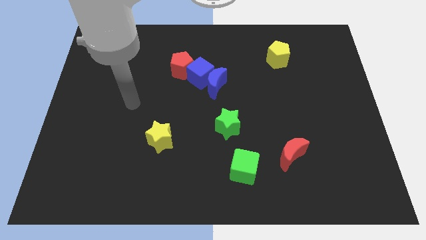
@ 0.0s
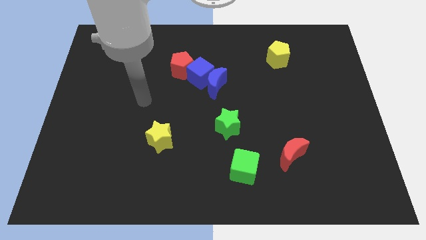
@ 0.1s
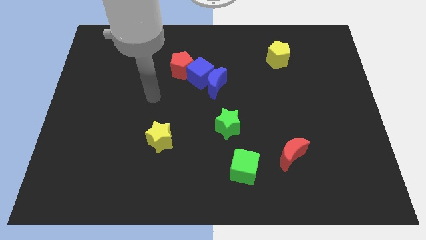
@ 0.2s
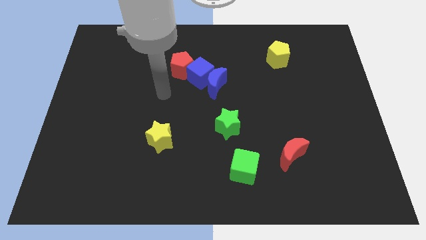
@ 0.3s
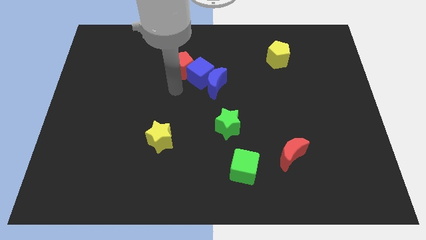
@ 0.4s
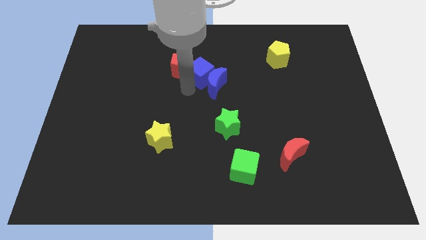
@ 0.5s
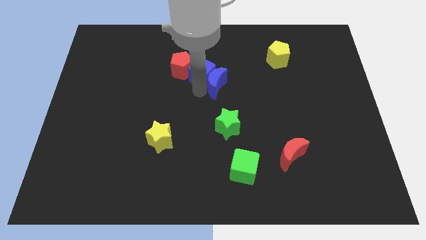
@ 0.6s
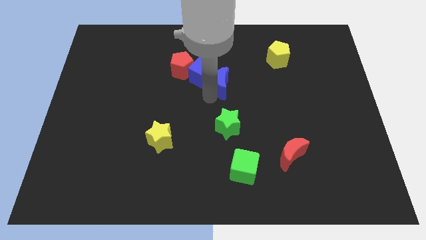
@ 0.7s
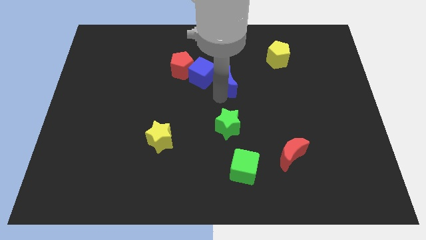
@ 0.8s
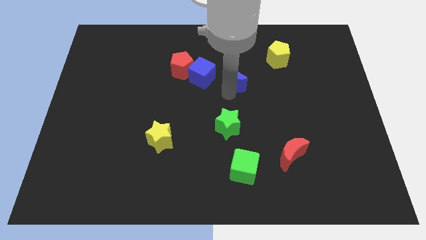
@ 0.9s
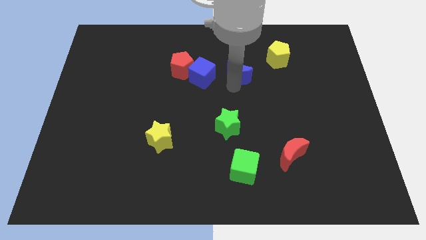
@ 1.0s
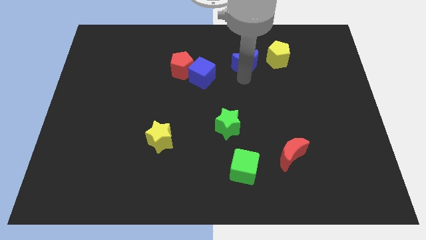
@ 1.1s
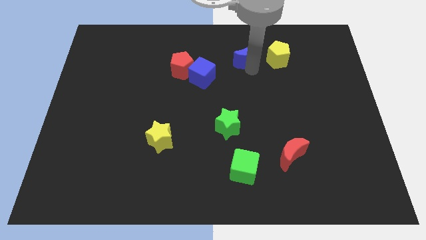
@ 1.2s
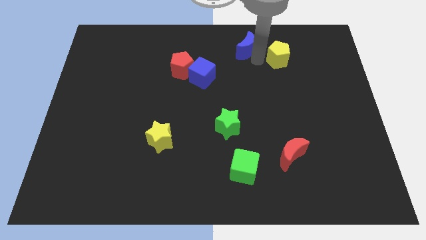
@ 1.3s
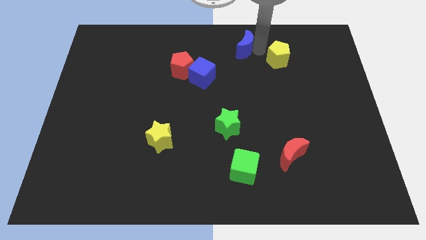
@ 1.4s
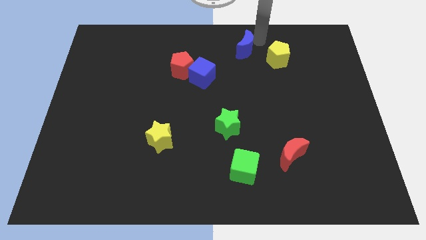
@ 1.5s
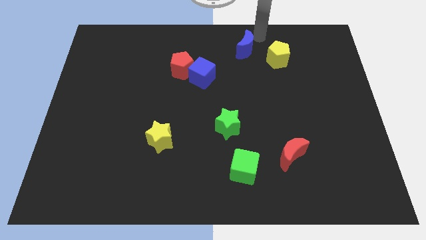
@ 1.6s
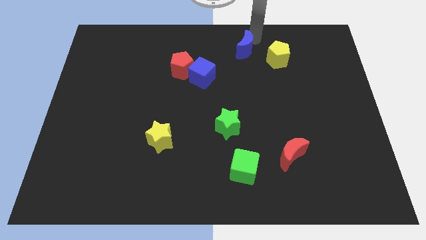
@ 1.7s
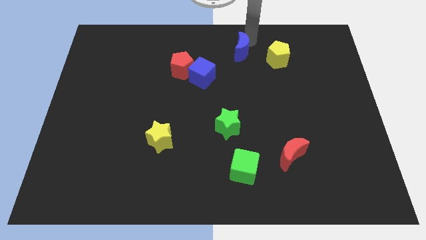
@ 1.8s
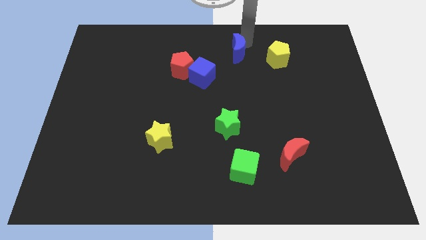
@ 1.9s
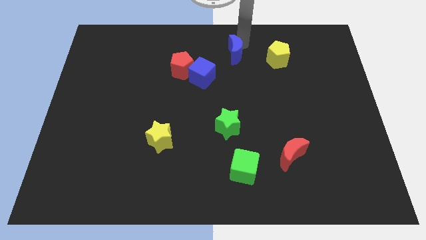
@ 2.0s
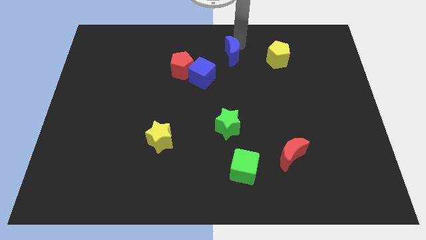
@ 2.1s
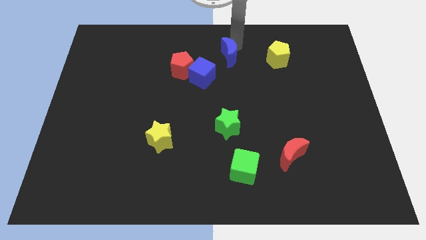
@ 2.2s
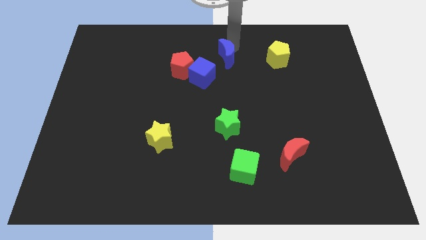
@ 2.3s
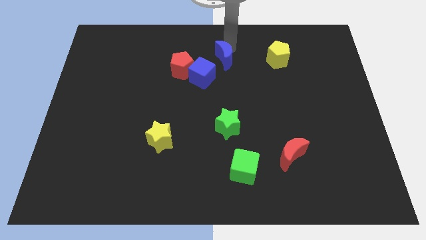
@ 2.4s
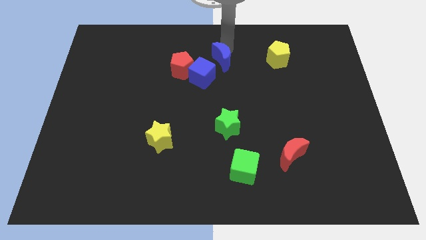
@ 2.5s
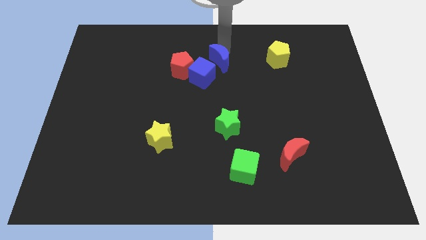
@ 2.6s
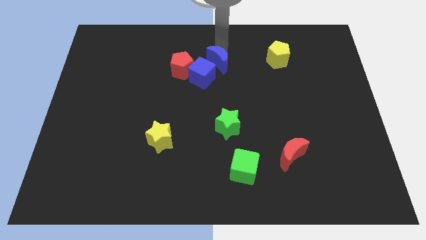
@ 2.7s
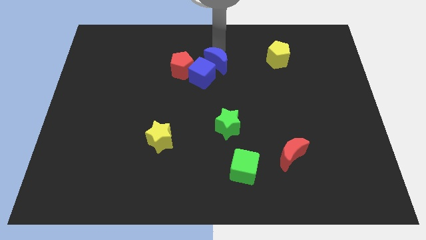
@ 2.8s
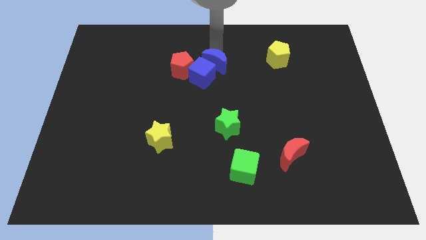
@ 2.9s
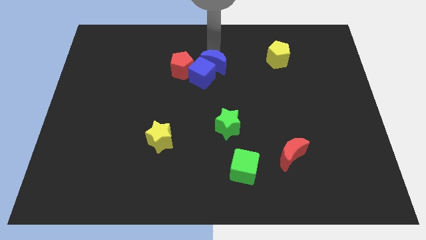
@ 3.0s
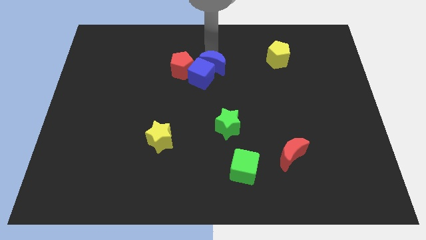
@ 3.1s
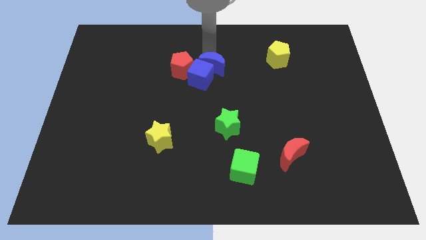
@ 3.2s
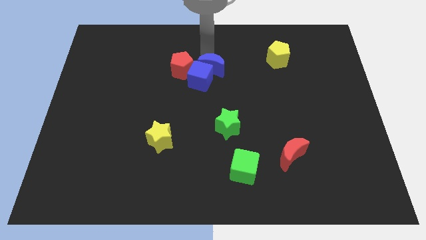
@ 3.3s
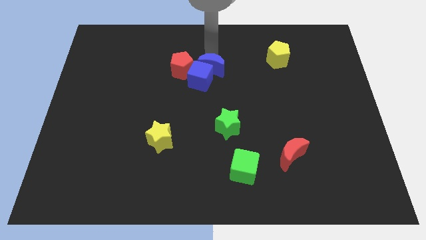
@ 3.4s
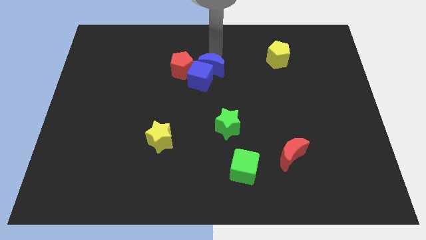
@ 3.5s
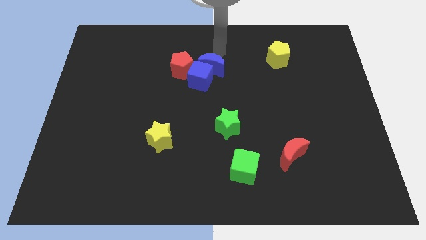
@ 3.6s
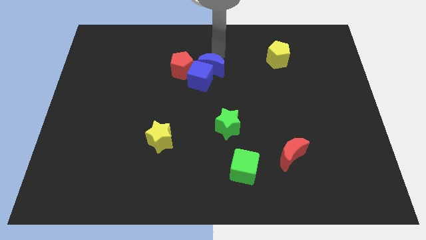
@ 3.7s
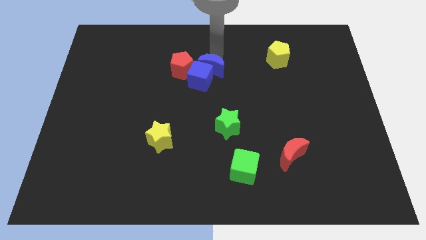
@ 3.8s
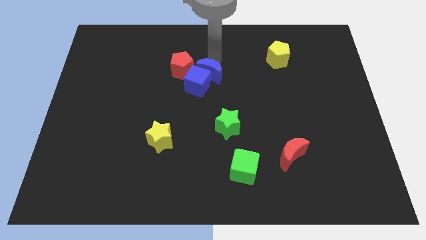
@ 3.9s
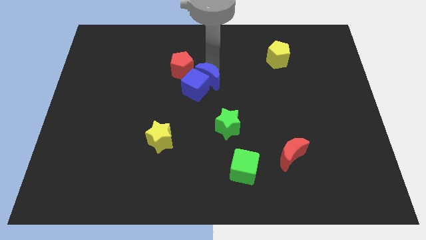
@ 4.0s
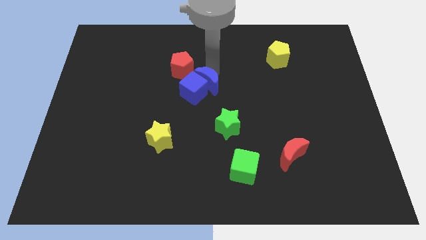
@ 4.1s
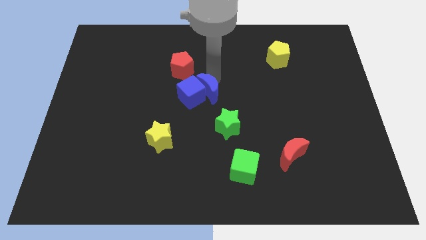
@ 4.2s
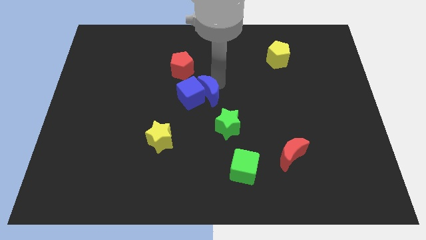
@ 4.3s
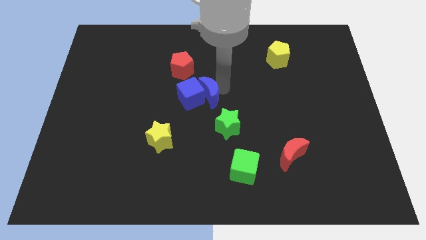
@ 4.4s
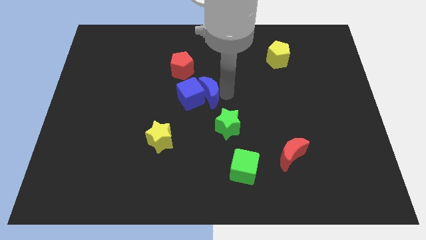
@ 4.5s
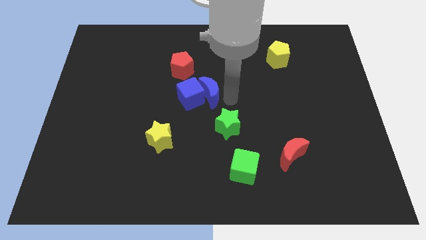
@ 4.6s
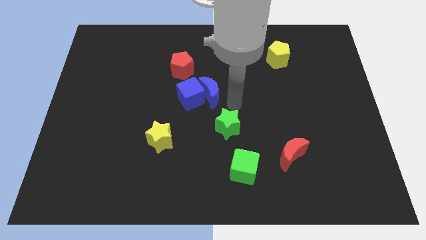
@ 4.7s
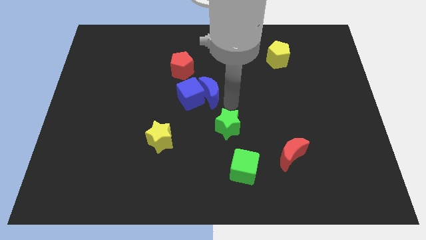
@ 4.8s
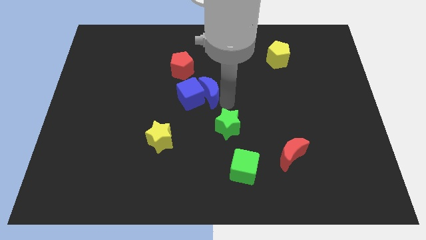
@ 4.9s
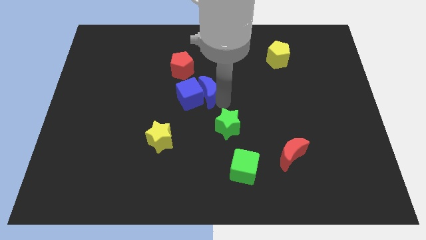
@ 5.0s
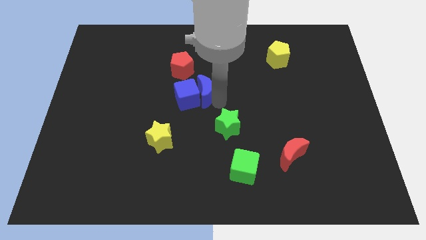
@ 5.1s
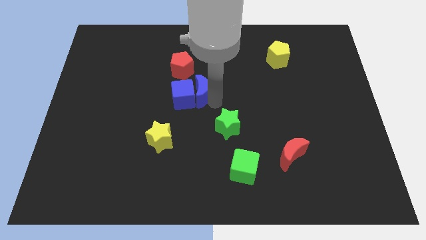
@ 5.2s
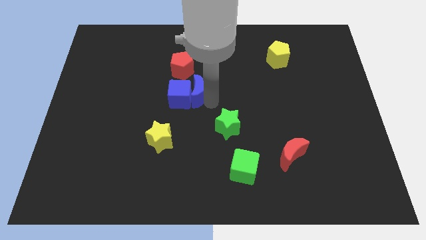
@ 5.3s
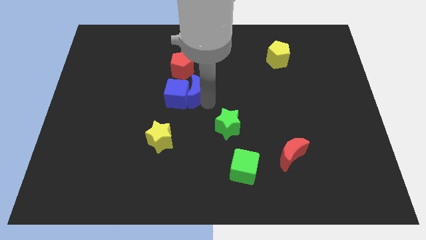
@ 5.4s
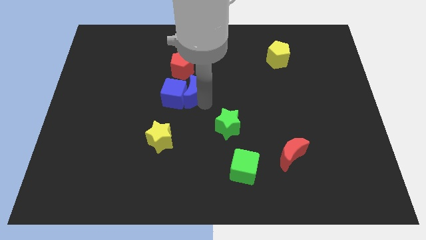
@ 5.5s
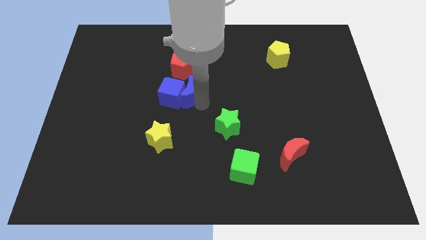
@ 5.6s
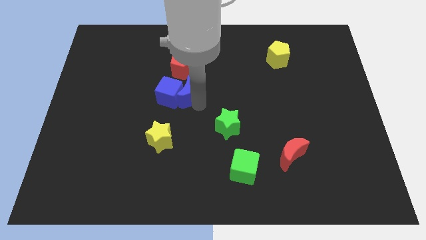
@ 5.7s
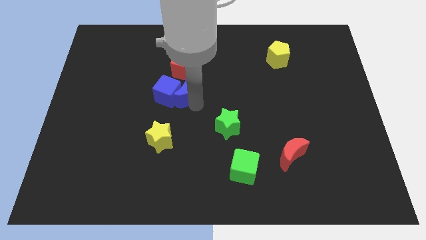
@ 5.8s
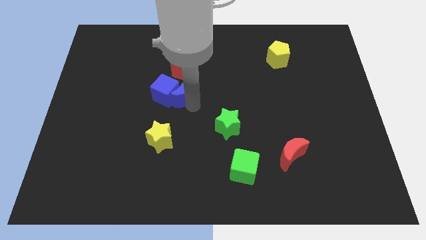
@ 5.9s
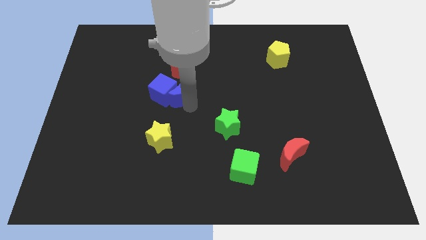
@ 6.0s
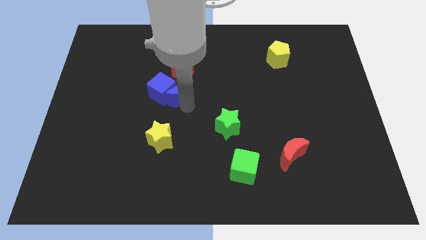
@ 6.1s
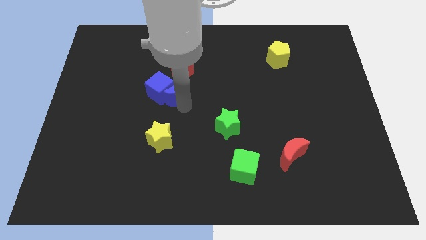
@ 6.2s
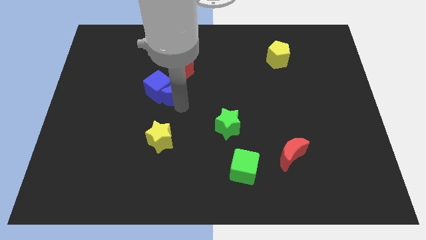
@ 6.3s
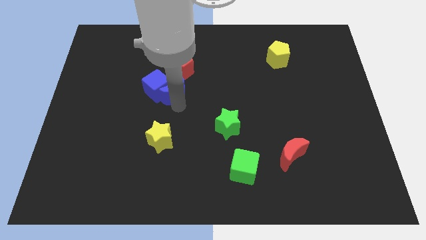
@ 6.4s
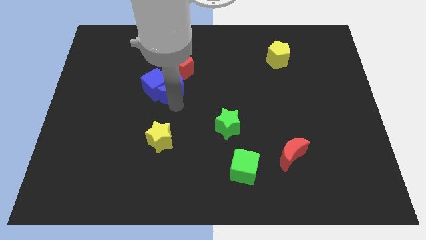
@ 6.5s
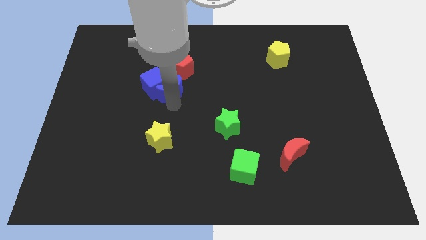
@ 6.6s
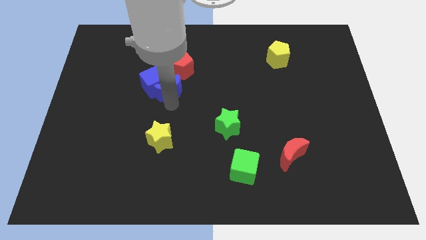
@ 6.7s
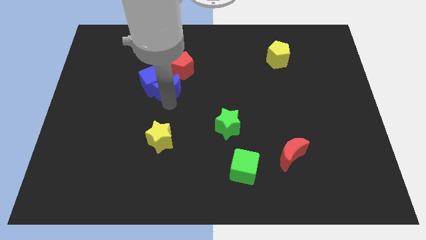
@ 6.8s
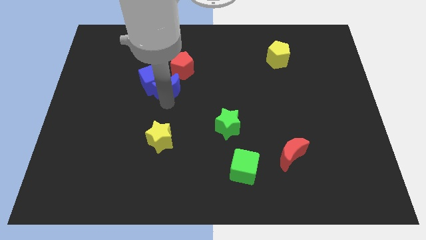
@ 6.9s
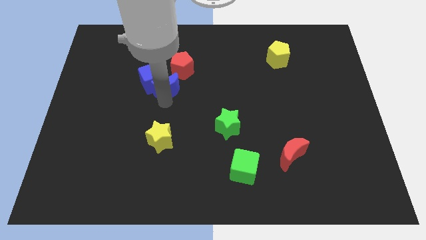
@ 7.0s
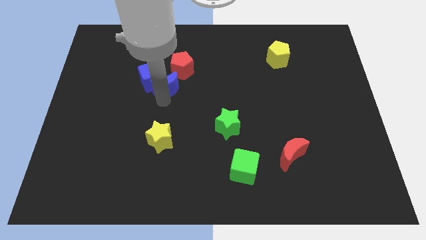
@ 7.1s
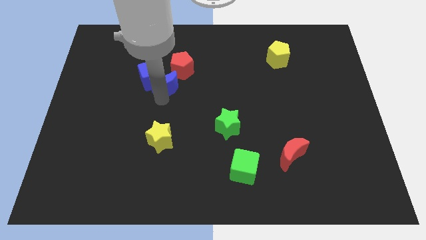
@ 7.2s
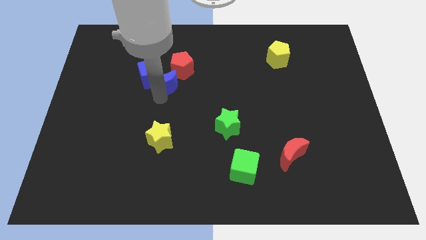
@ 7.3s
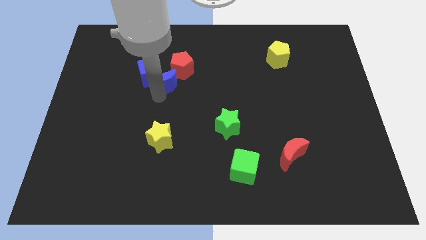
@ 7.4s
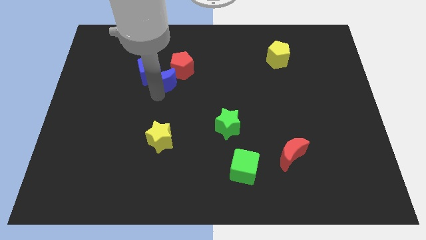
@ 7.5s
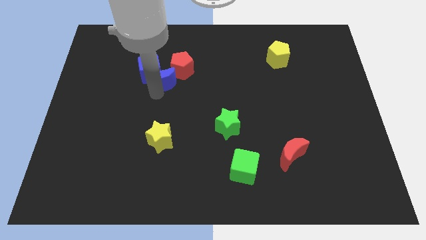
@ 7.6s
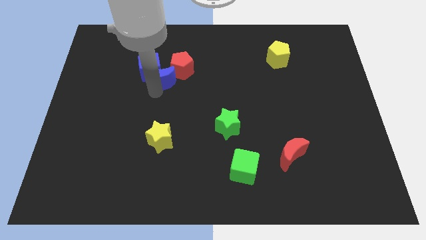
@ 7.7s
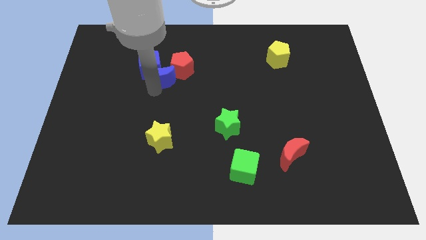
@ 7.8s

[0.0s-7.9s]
put the blue moon to the red pentagon
